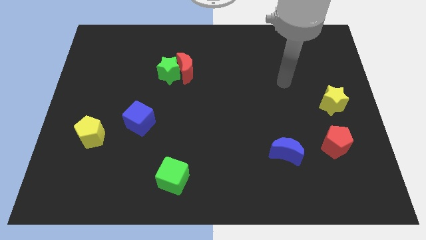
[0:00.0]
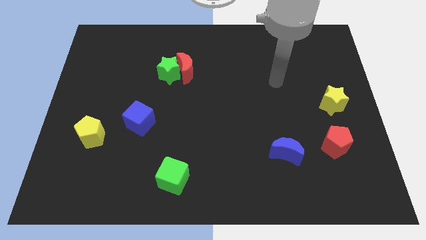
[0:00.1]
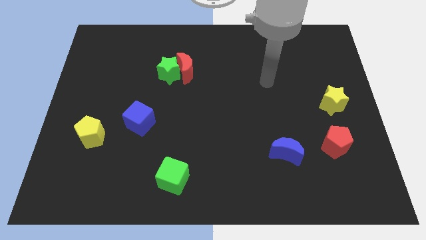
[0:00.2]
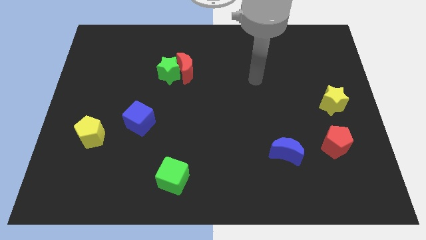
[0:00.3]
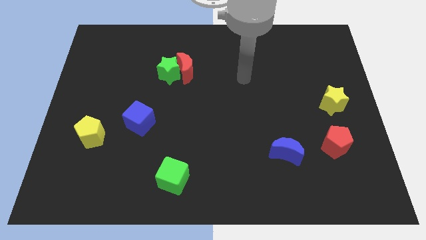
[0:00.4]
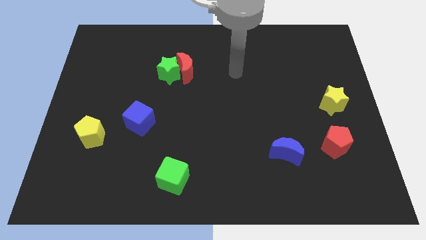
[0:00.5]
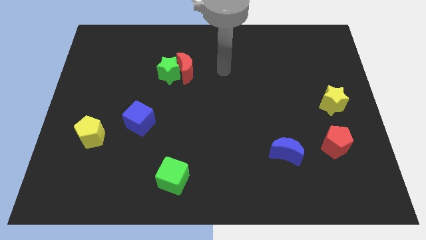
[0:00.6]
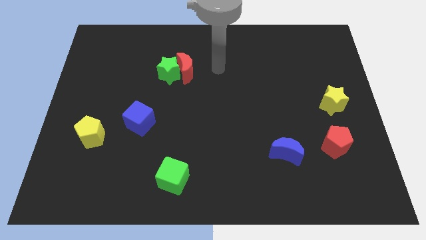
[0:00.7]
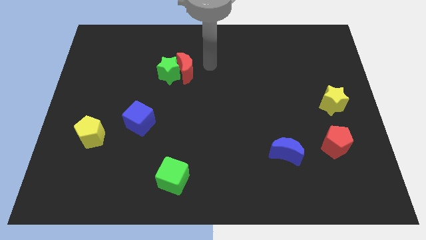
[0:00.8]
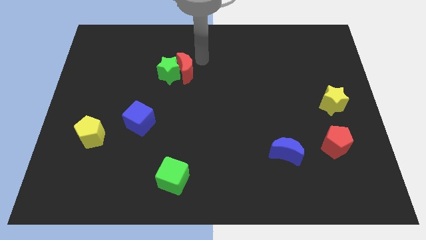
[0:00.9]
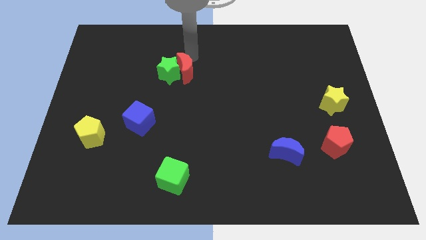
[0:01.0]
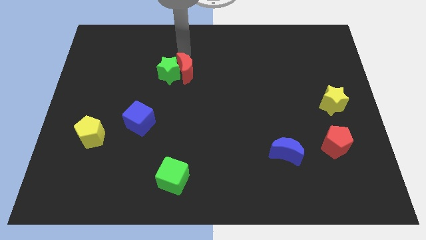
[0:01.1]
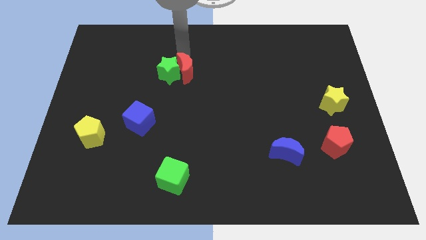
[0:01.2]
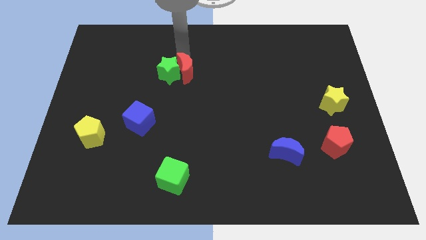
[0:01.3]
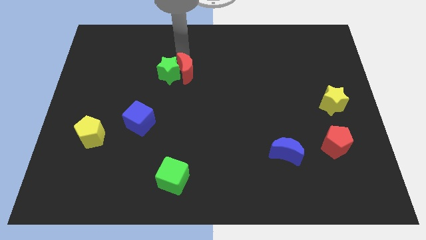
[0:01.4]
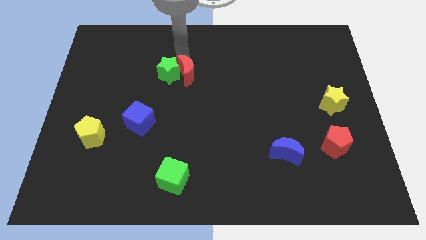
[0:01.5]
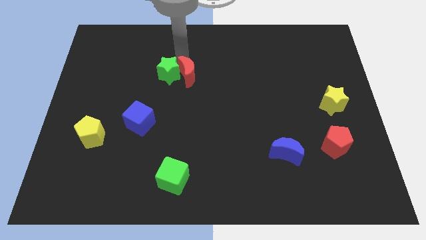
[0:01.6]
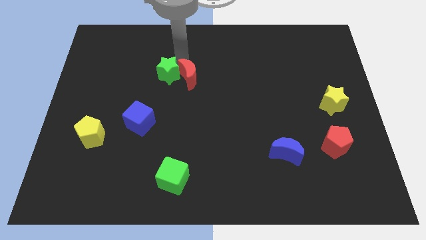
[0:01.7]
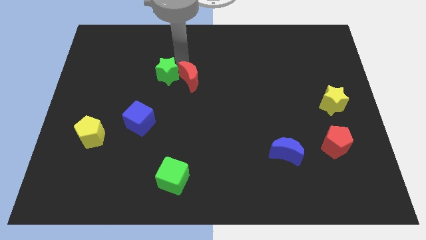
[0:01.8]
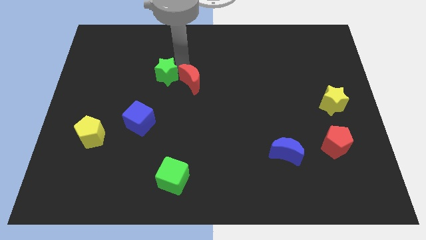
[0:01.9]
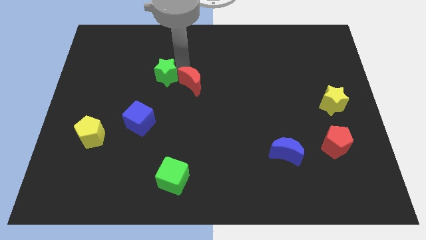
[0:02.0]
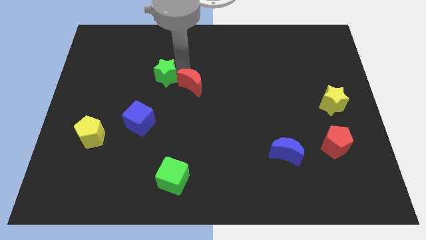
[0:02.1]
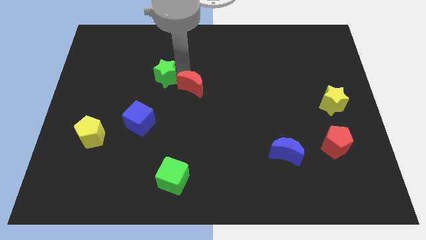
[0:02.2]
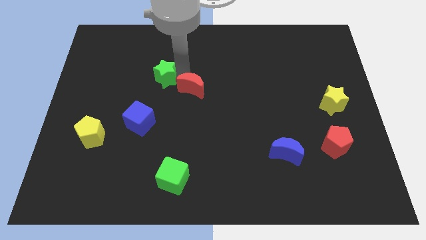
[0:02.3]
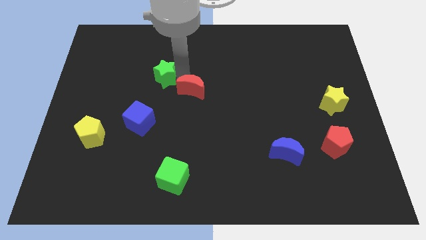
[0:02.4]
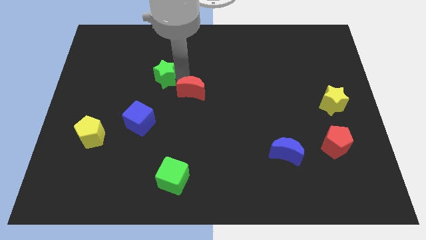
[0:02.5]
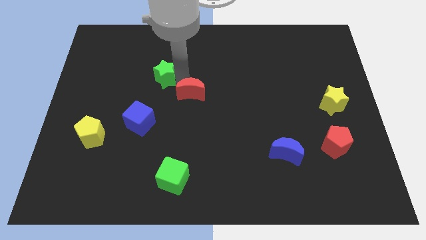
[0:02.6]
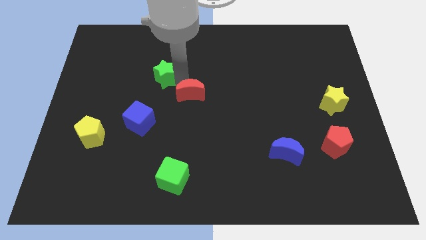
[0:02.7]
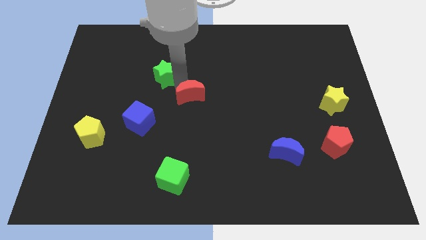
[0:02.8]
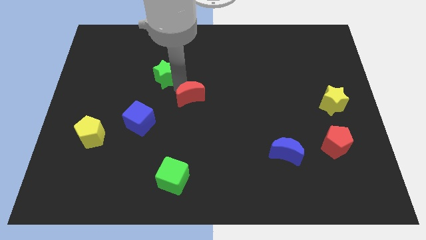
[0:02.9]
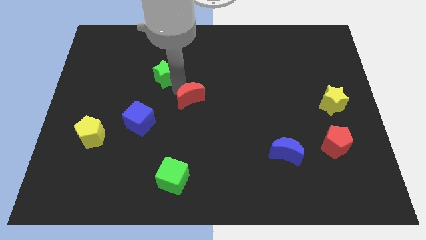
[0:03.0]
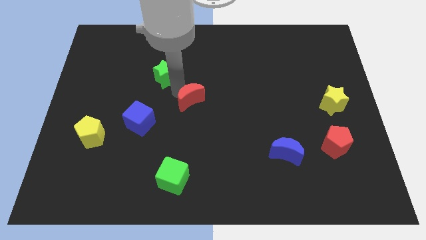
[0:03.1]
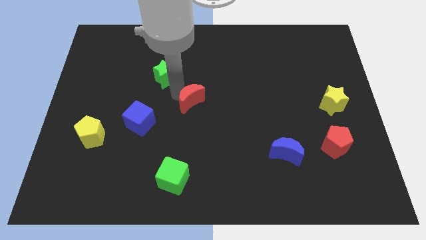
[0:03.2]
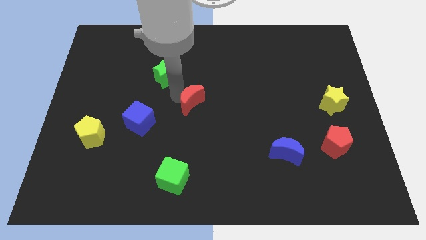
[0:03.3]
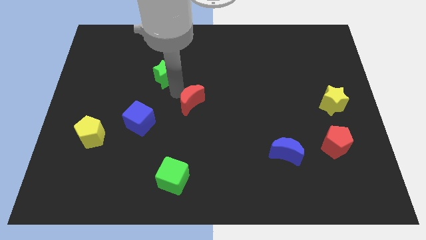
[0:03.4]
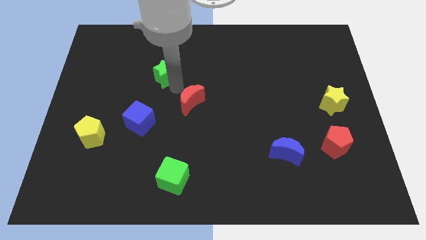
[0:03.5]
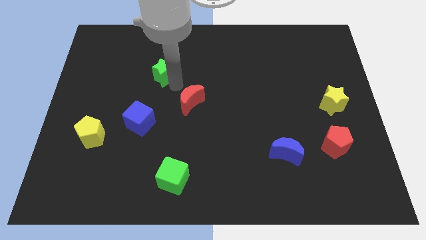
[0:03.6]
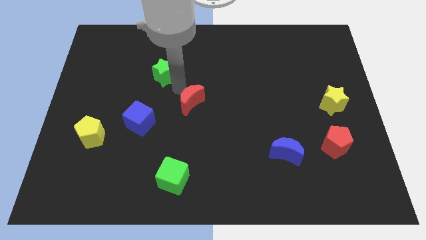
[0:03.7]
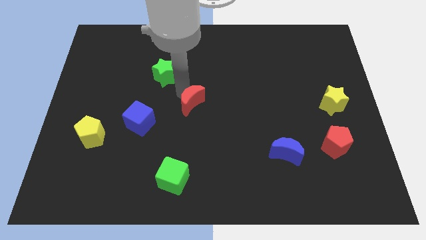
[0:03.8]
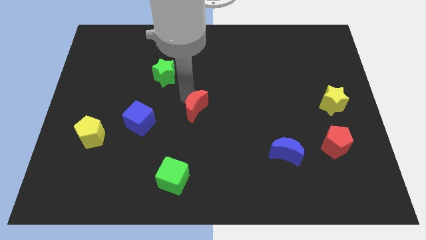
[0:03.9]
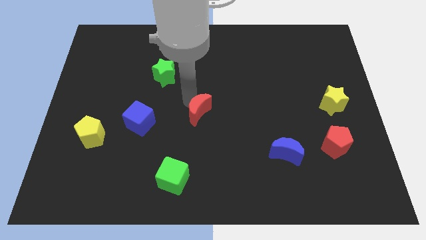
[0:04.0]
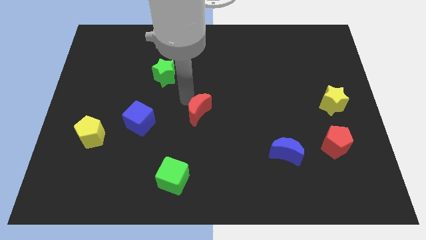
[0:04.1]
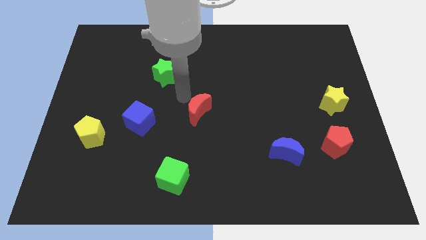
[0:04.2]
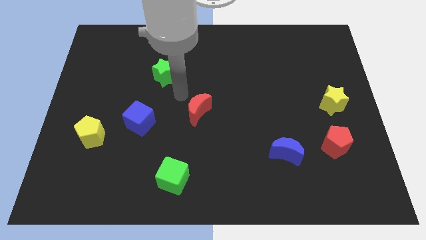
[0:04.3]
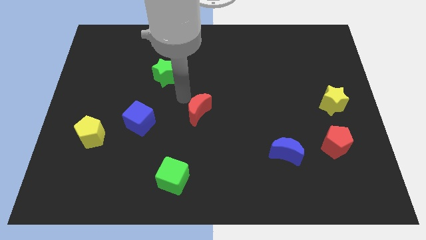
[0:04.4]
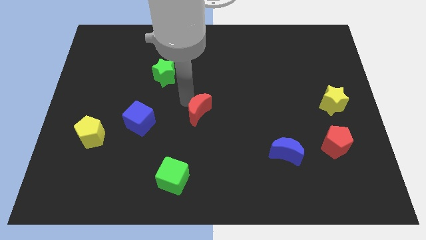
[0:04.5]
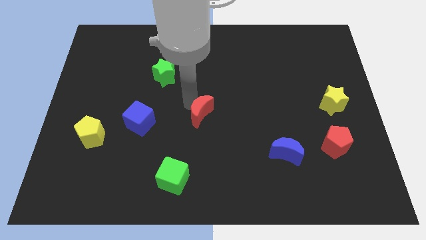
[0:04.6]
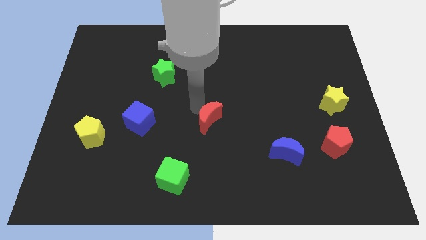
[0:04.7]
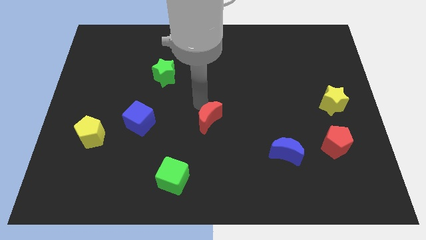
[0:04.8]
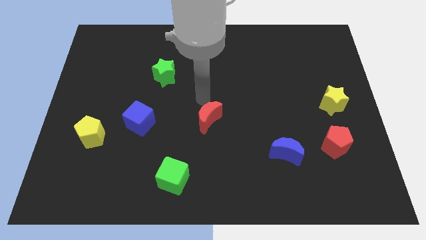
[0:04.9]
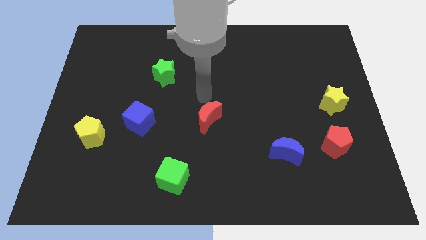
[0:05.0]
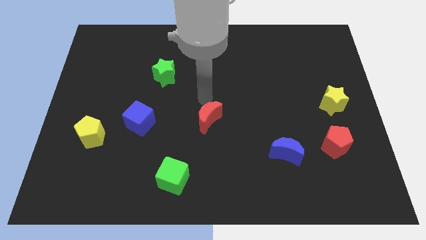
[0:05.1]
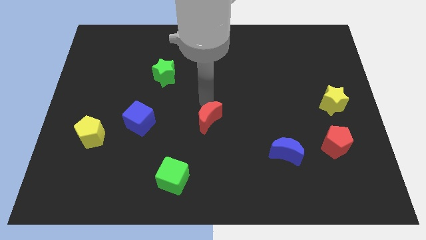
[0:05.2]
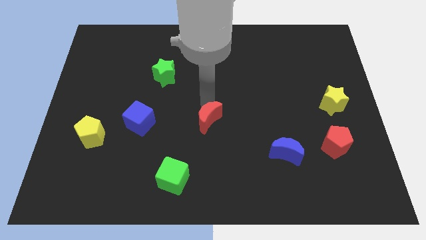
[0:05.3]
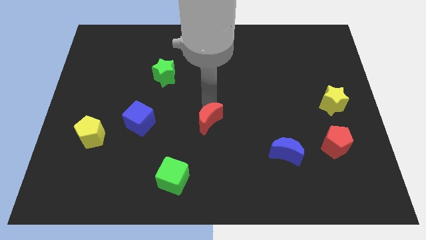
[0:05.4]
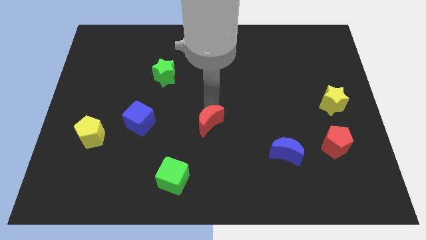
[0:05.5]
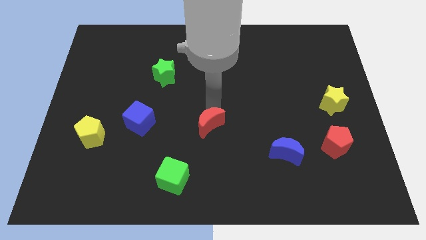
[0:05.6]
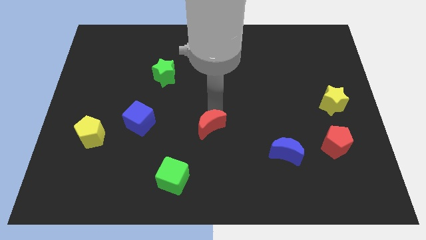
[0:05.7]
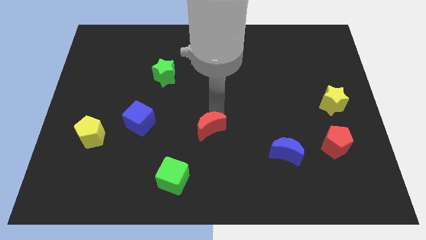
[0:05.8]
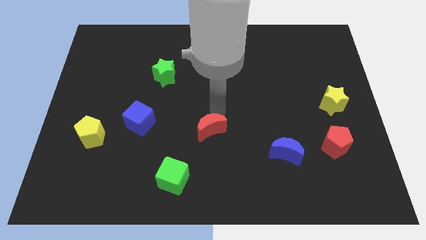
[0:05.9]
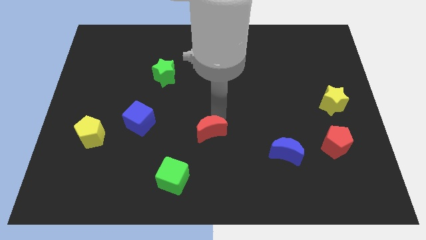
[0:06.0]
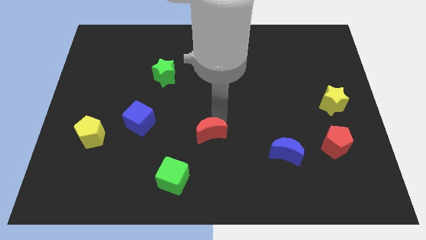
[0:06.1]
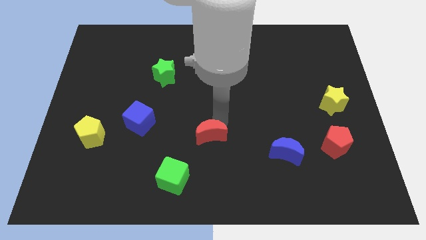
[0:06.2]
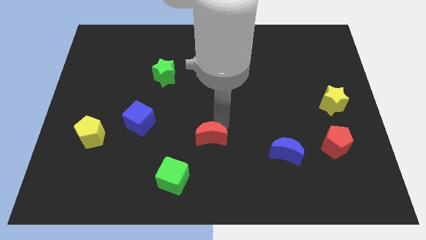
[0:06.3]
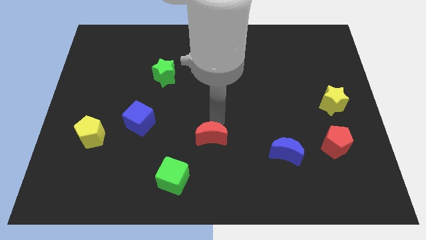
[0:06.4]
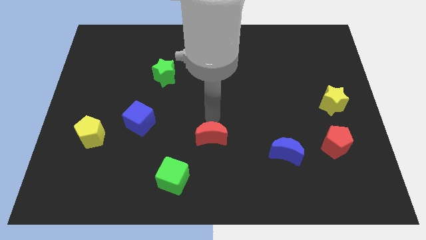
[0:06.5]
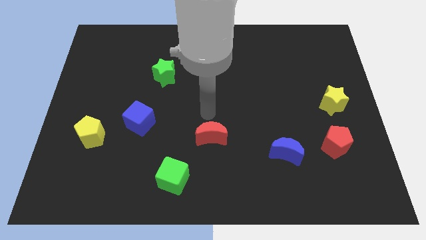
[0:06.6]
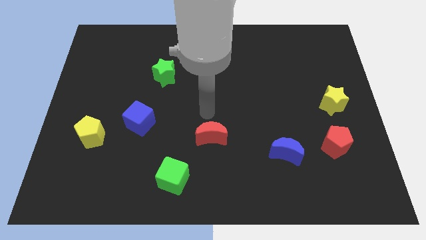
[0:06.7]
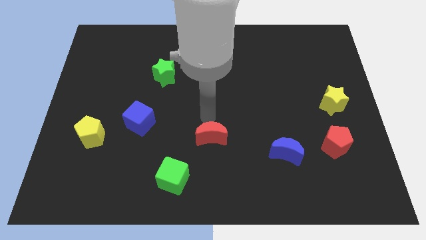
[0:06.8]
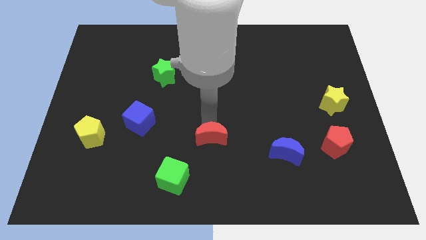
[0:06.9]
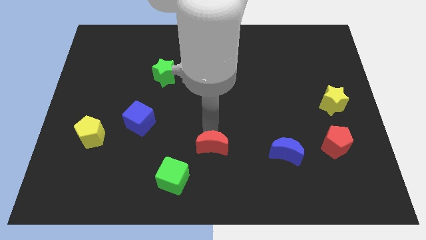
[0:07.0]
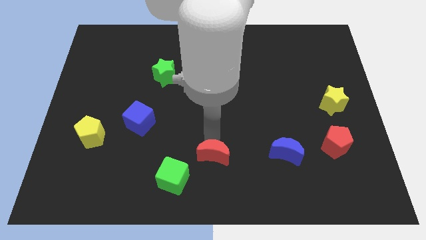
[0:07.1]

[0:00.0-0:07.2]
slide the red moon to the bottom side
